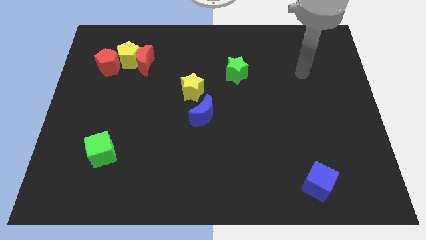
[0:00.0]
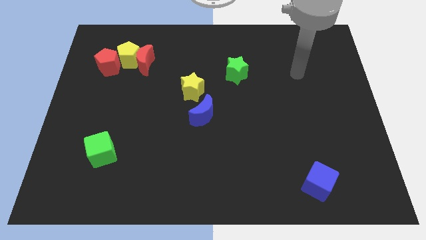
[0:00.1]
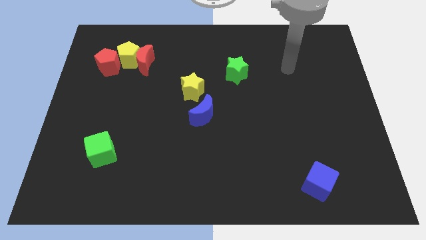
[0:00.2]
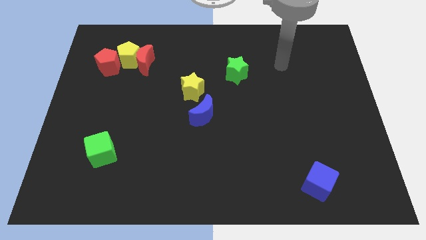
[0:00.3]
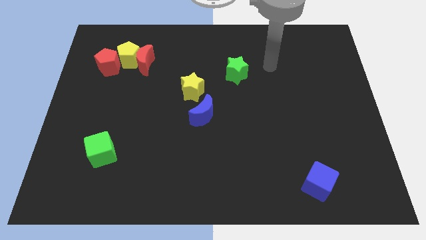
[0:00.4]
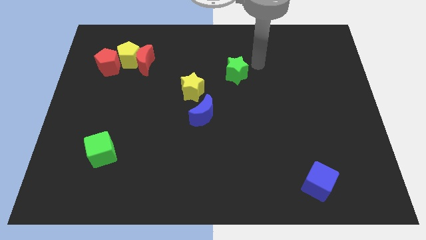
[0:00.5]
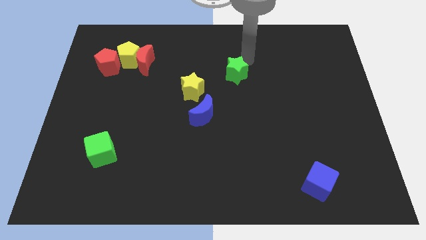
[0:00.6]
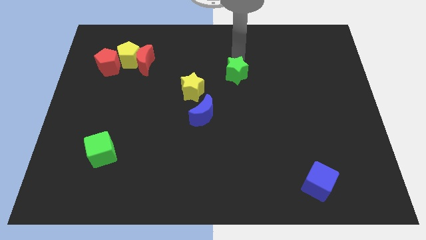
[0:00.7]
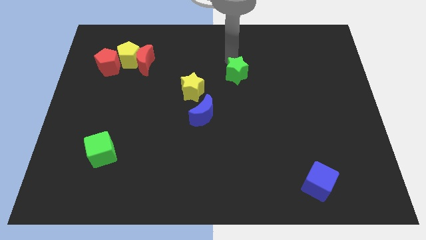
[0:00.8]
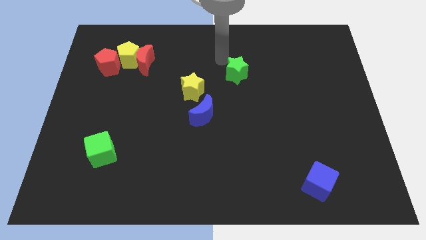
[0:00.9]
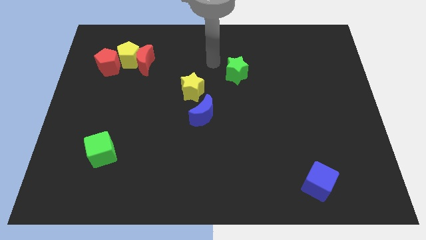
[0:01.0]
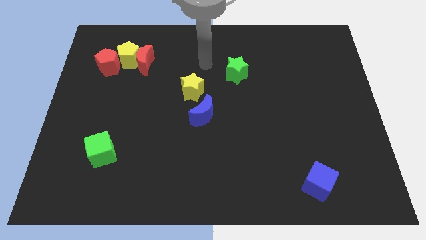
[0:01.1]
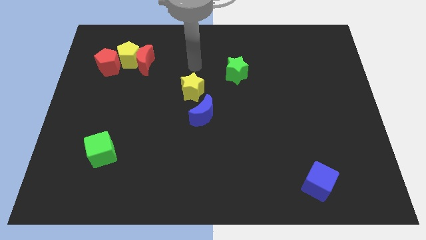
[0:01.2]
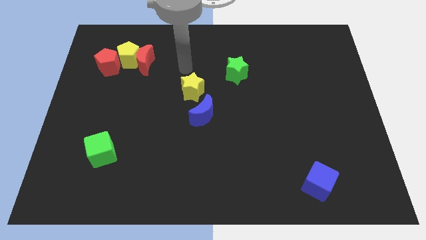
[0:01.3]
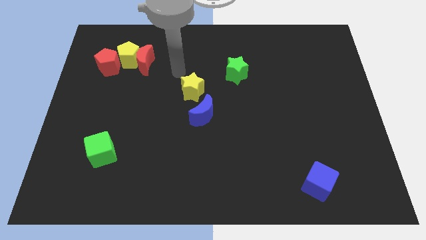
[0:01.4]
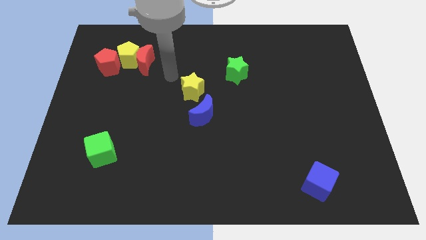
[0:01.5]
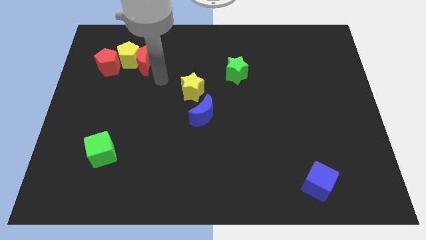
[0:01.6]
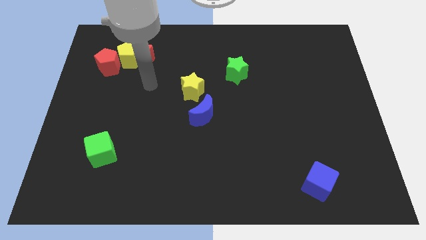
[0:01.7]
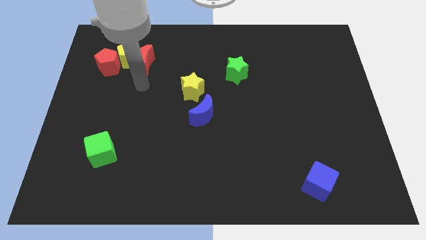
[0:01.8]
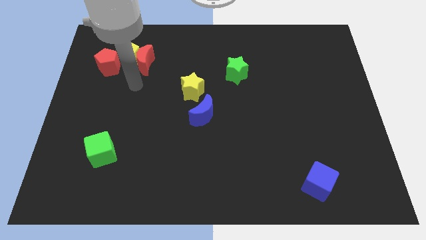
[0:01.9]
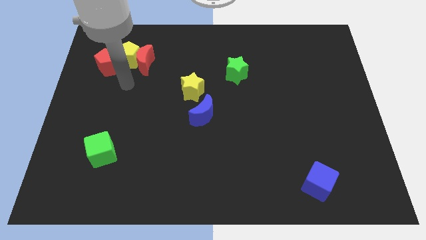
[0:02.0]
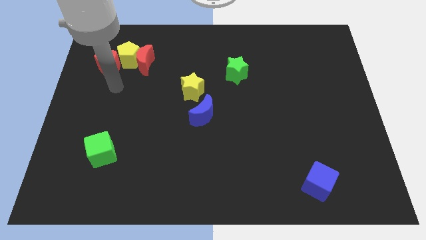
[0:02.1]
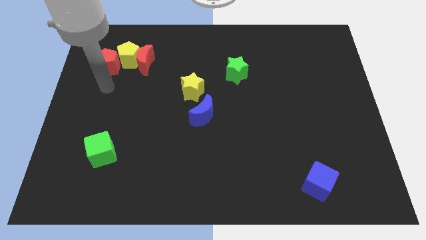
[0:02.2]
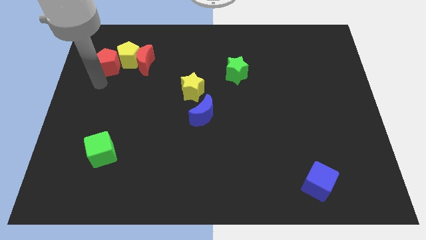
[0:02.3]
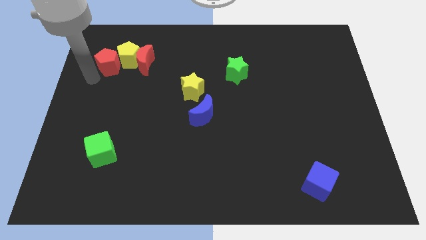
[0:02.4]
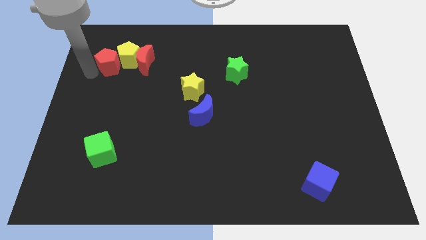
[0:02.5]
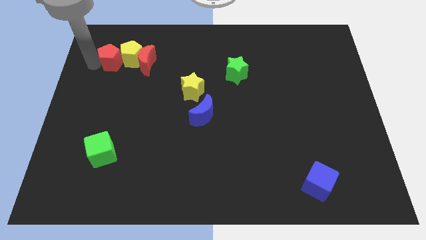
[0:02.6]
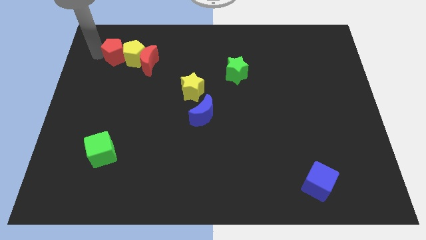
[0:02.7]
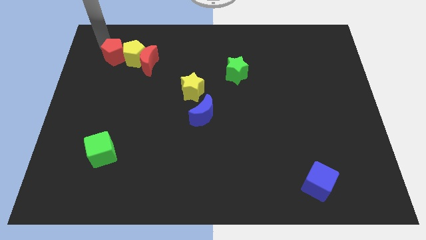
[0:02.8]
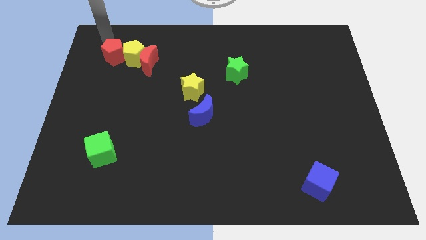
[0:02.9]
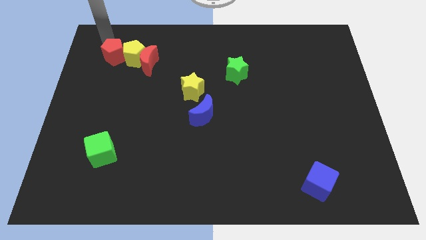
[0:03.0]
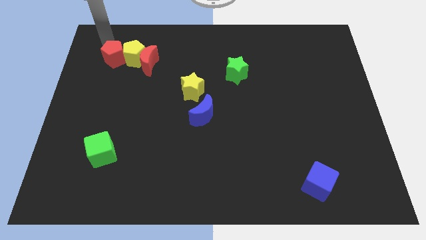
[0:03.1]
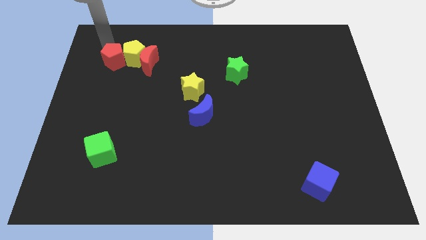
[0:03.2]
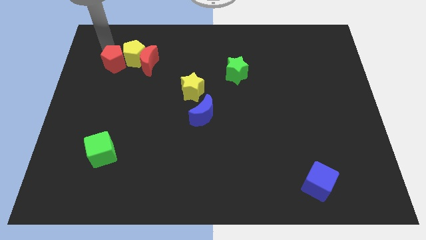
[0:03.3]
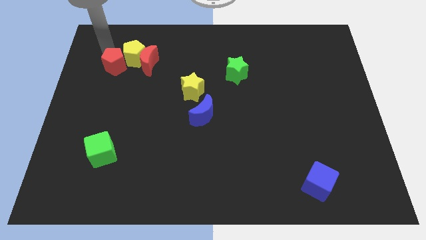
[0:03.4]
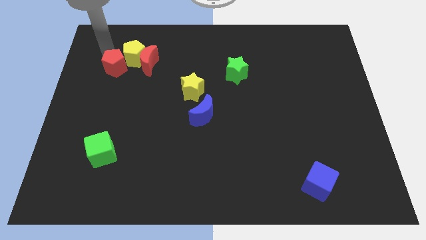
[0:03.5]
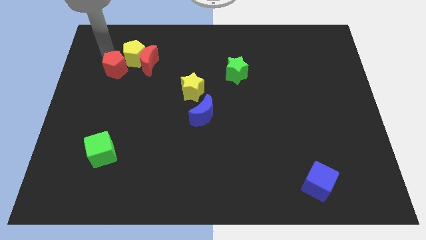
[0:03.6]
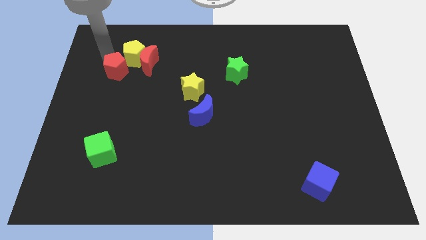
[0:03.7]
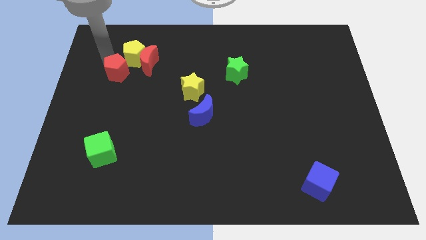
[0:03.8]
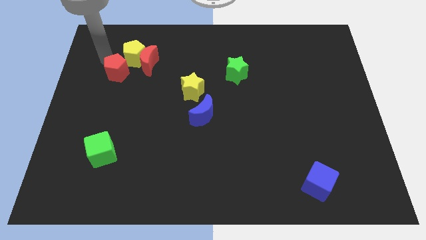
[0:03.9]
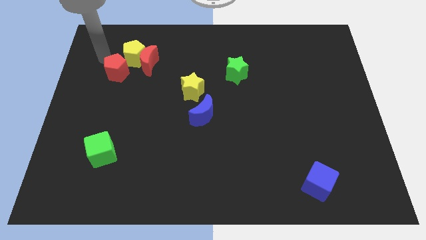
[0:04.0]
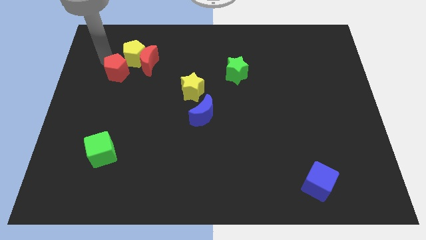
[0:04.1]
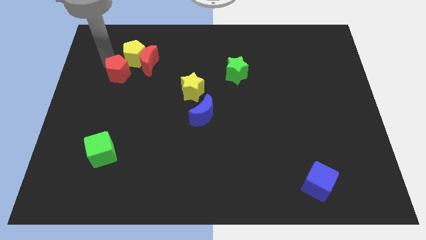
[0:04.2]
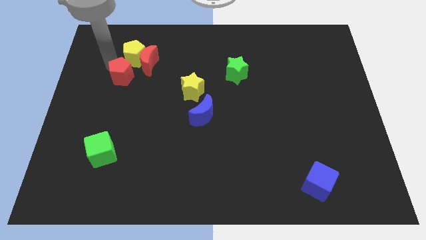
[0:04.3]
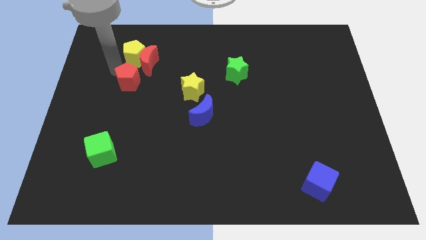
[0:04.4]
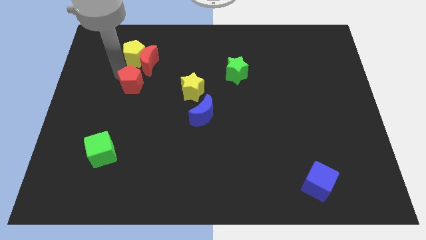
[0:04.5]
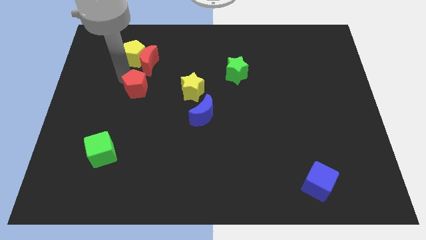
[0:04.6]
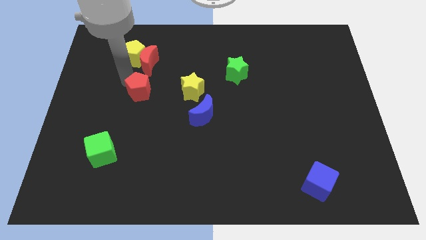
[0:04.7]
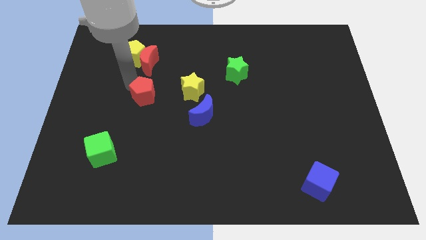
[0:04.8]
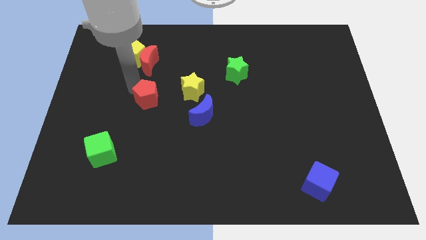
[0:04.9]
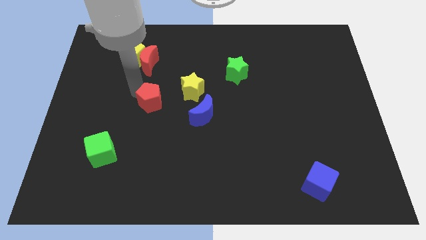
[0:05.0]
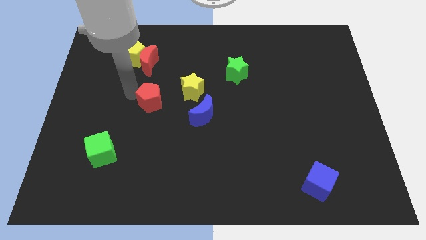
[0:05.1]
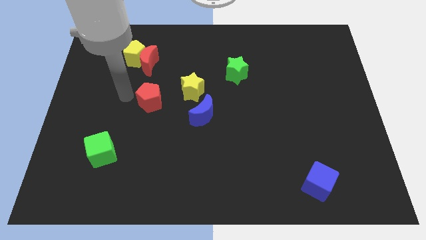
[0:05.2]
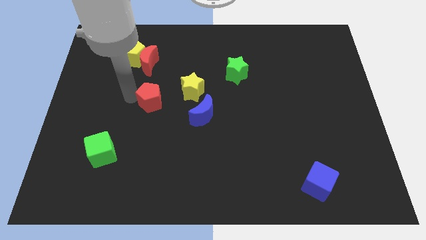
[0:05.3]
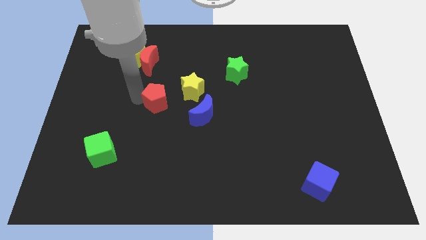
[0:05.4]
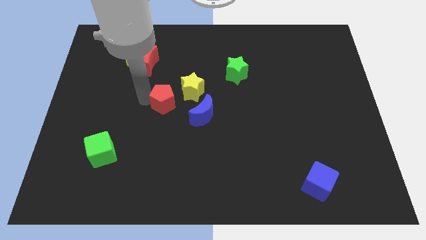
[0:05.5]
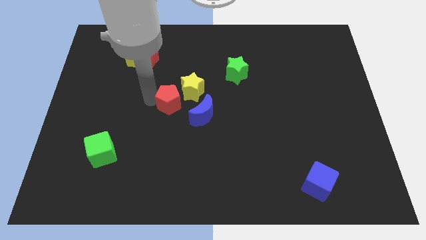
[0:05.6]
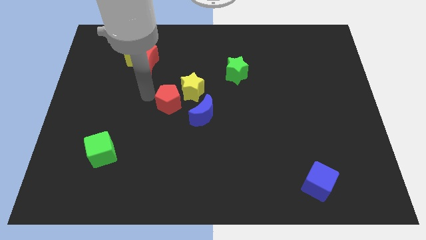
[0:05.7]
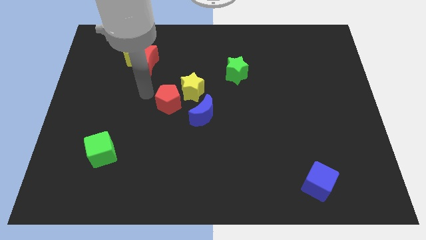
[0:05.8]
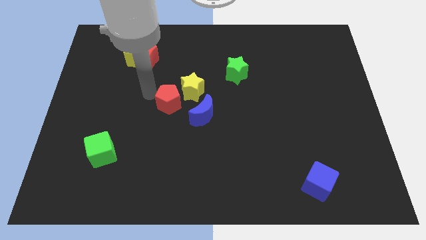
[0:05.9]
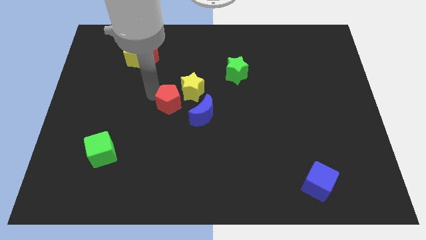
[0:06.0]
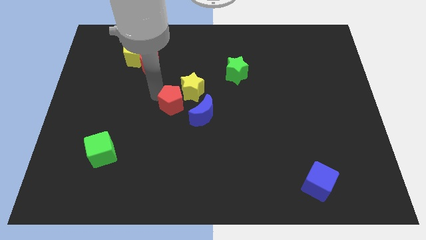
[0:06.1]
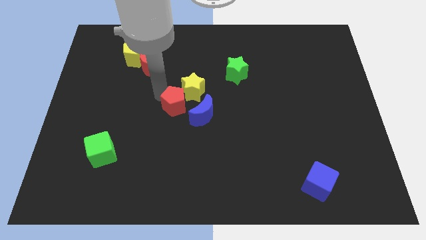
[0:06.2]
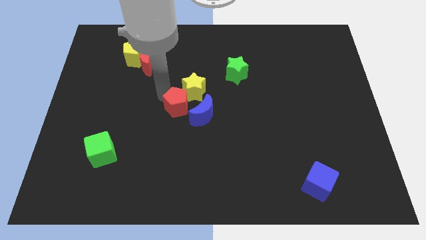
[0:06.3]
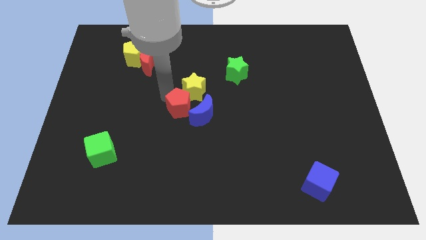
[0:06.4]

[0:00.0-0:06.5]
put the red pentagon next to the blue moon
